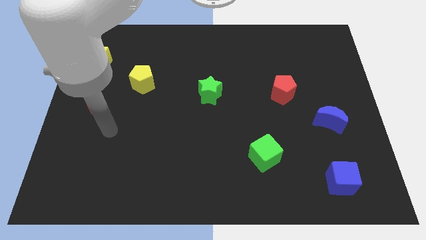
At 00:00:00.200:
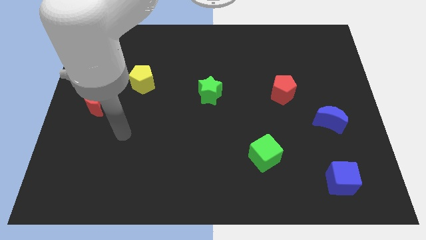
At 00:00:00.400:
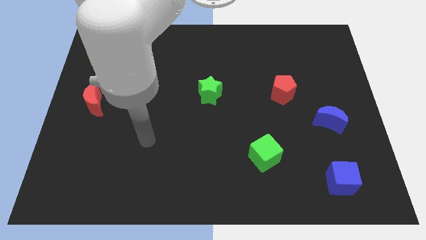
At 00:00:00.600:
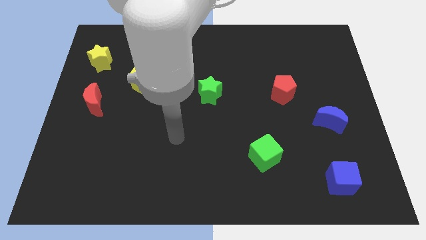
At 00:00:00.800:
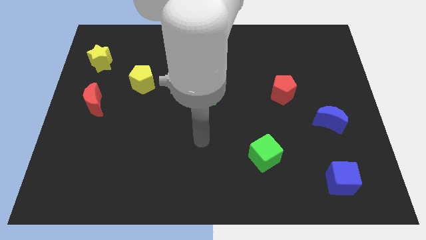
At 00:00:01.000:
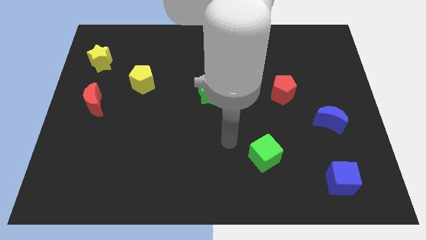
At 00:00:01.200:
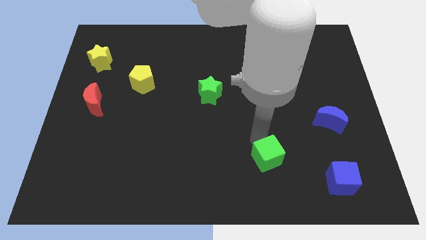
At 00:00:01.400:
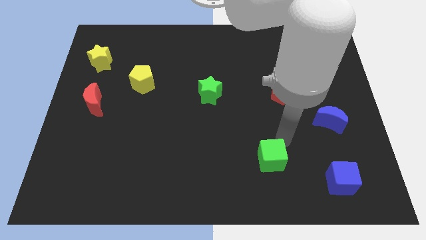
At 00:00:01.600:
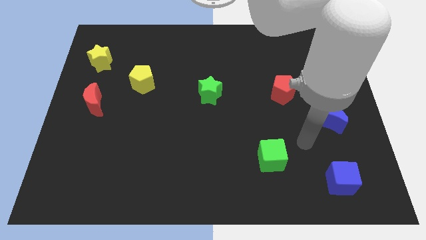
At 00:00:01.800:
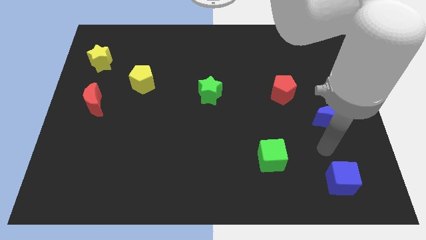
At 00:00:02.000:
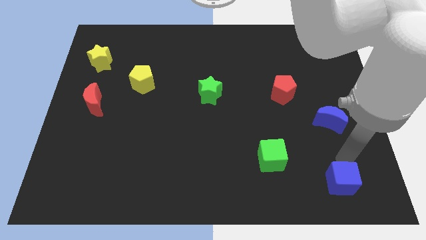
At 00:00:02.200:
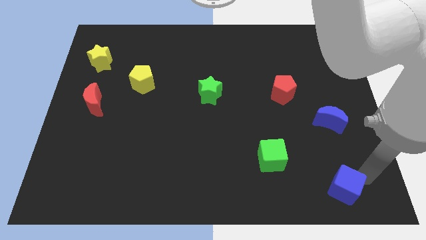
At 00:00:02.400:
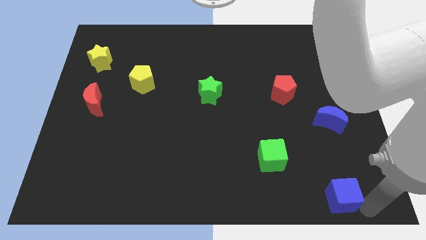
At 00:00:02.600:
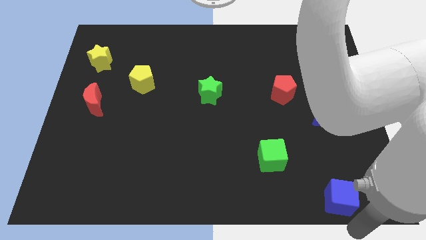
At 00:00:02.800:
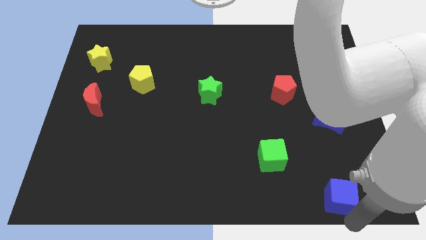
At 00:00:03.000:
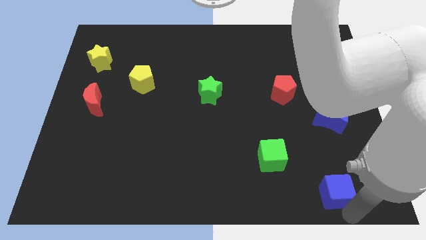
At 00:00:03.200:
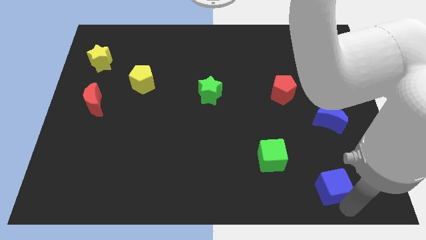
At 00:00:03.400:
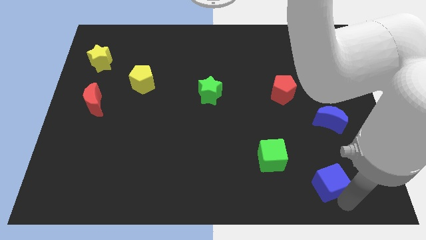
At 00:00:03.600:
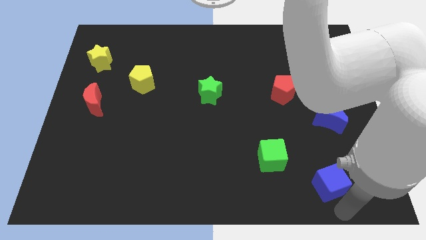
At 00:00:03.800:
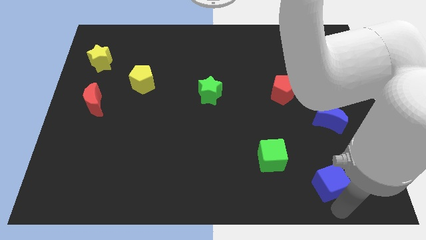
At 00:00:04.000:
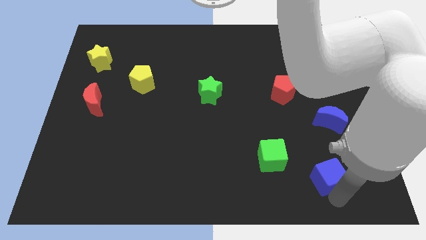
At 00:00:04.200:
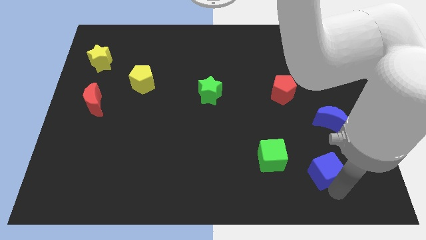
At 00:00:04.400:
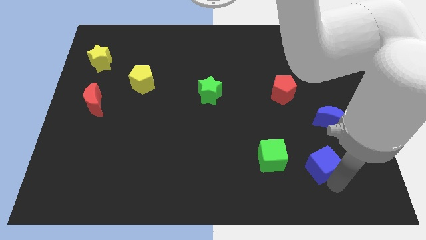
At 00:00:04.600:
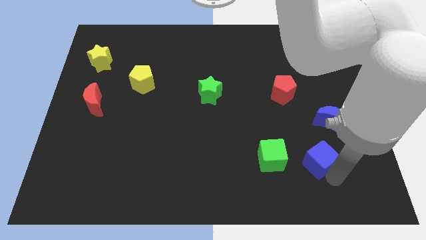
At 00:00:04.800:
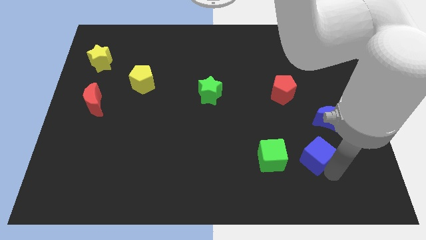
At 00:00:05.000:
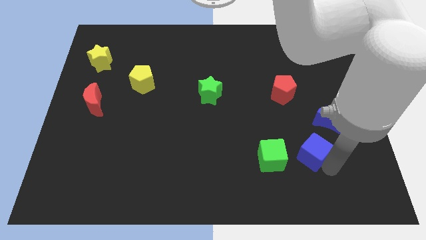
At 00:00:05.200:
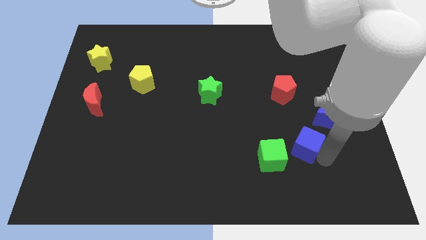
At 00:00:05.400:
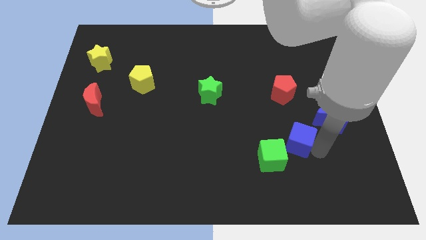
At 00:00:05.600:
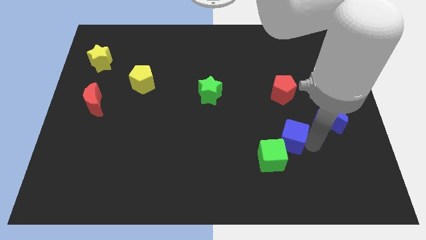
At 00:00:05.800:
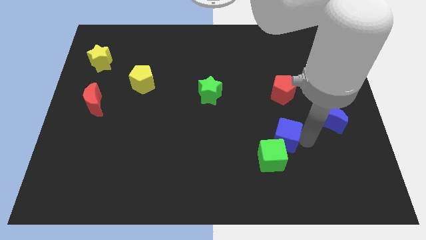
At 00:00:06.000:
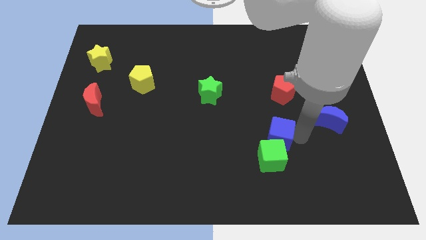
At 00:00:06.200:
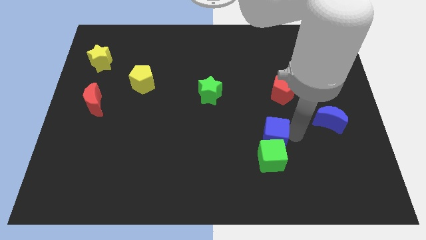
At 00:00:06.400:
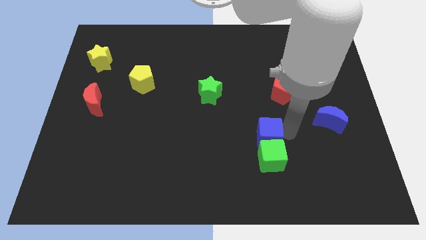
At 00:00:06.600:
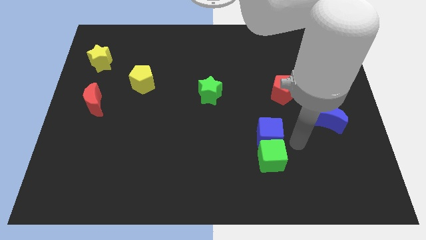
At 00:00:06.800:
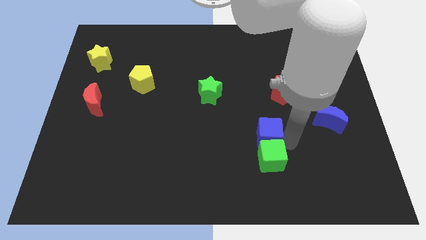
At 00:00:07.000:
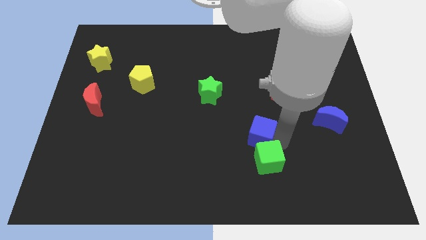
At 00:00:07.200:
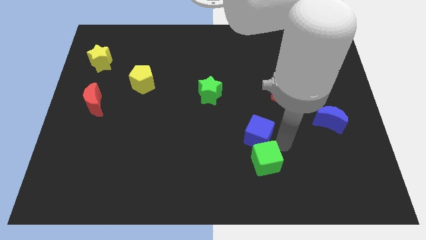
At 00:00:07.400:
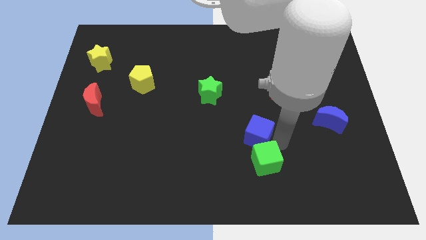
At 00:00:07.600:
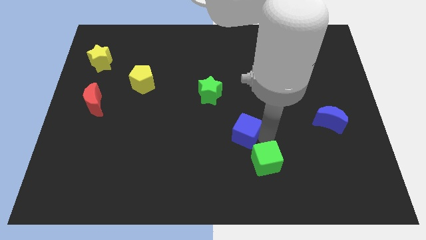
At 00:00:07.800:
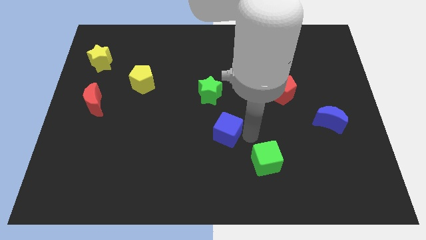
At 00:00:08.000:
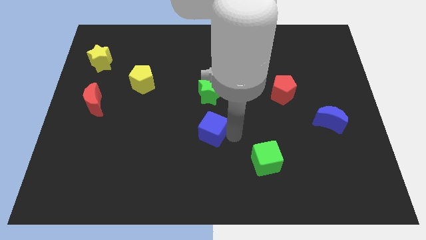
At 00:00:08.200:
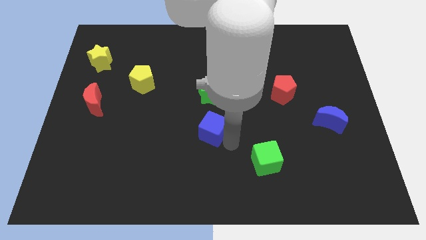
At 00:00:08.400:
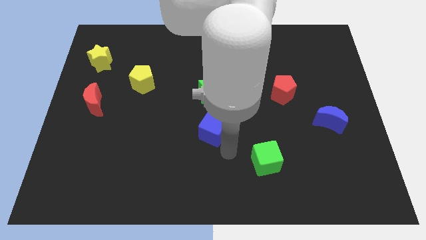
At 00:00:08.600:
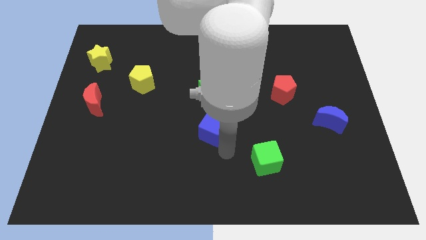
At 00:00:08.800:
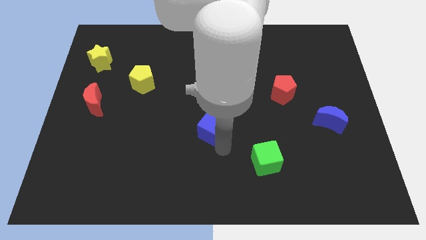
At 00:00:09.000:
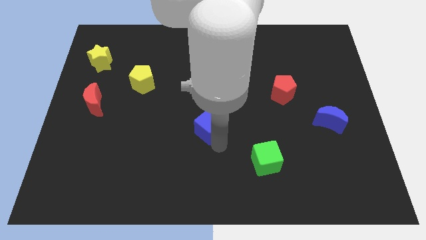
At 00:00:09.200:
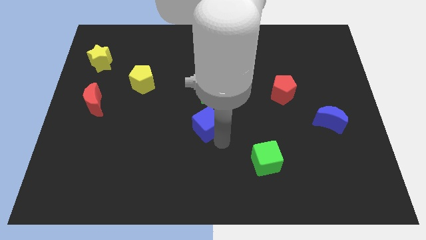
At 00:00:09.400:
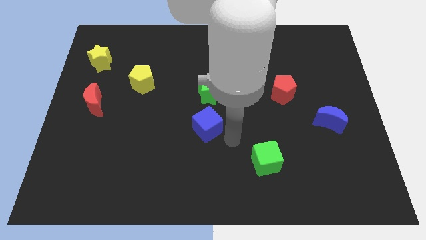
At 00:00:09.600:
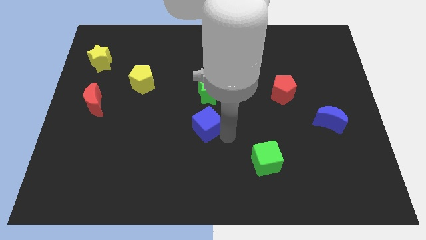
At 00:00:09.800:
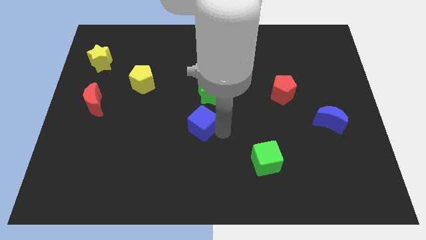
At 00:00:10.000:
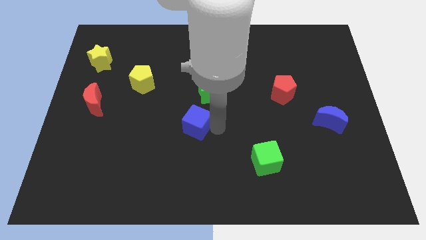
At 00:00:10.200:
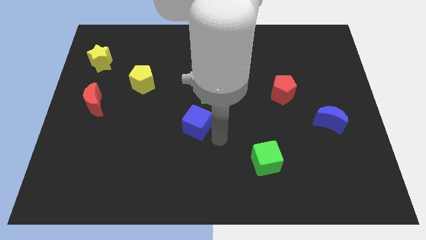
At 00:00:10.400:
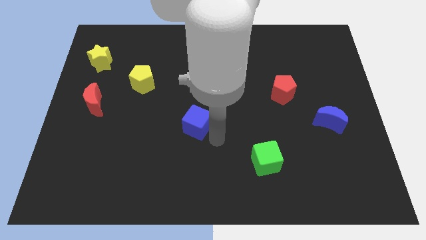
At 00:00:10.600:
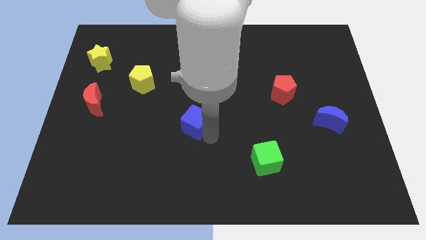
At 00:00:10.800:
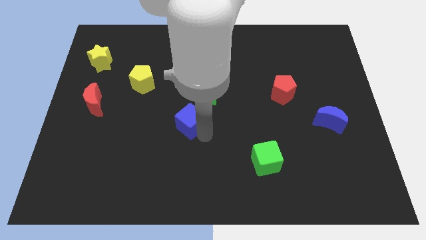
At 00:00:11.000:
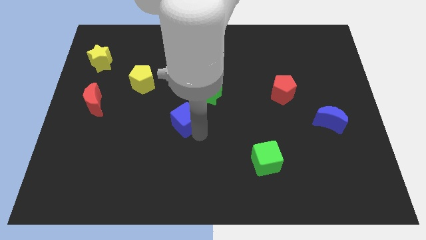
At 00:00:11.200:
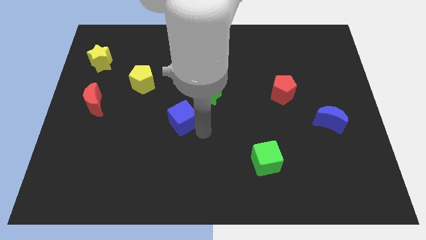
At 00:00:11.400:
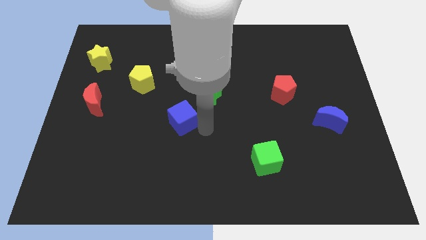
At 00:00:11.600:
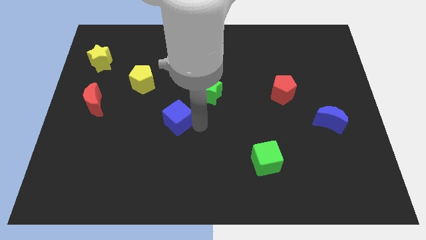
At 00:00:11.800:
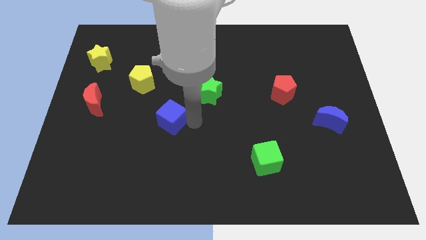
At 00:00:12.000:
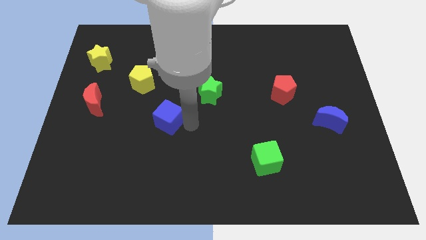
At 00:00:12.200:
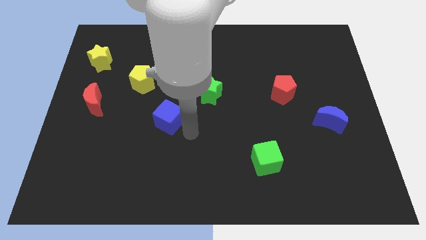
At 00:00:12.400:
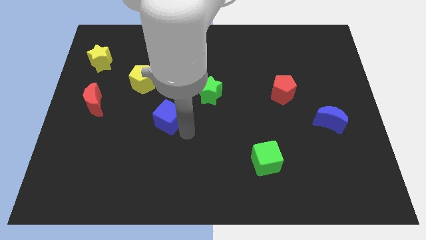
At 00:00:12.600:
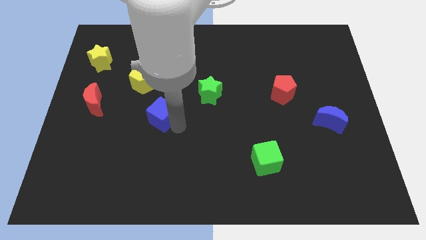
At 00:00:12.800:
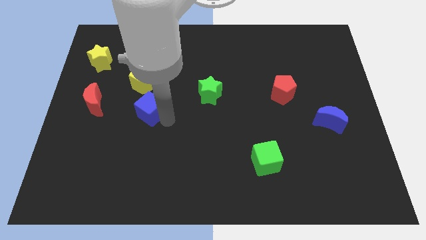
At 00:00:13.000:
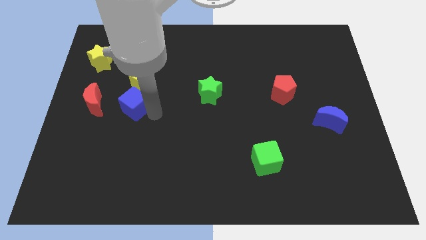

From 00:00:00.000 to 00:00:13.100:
move the blue cube diagonally down and to the left of the yellow pentagon

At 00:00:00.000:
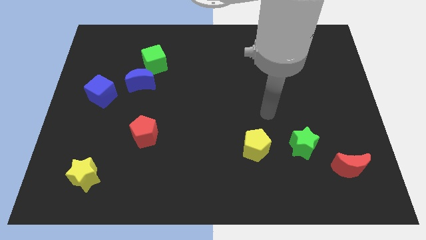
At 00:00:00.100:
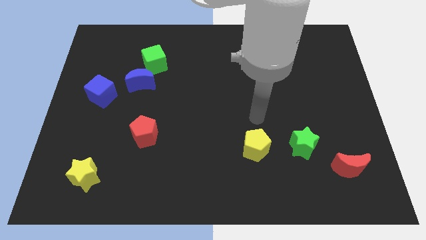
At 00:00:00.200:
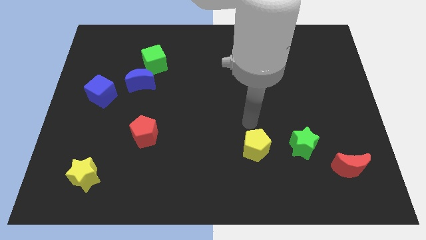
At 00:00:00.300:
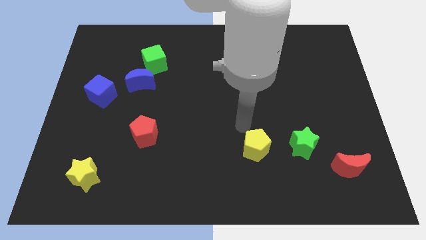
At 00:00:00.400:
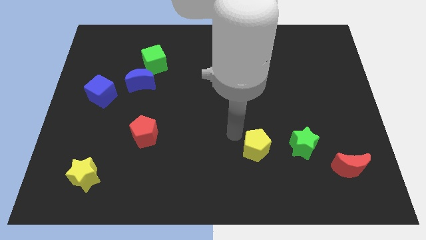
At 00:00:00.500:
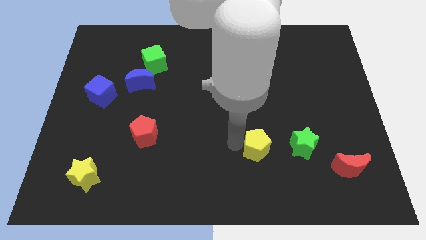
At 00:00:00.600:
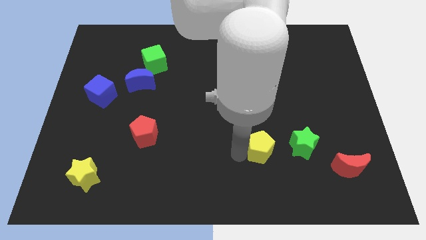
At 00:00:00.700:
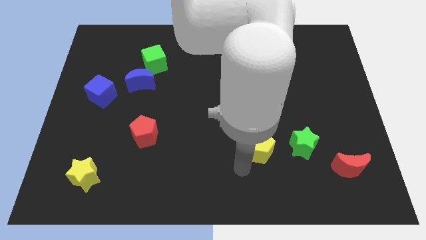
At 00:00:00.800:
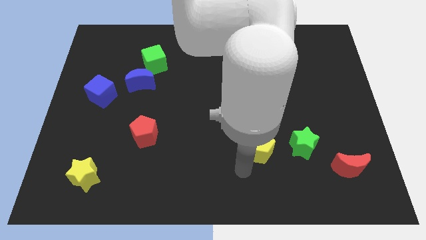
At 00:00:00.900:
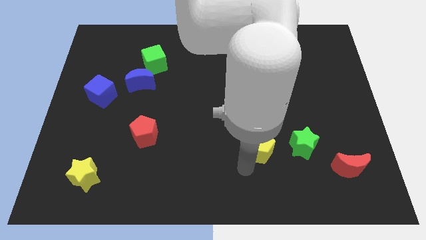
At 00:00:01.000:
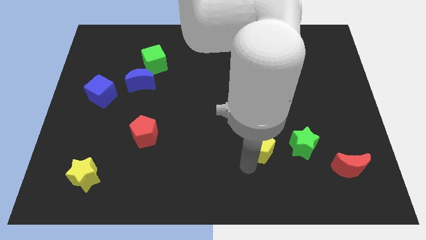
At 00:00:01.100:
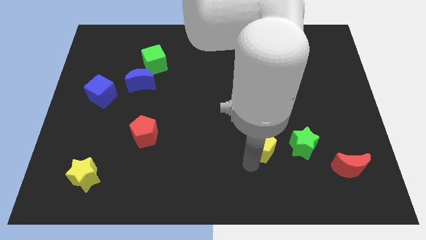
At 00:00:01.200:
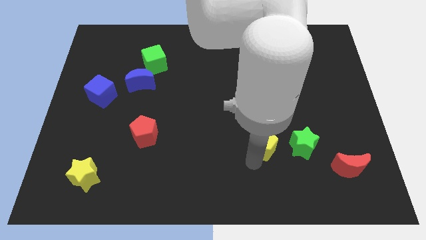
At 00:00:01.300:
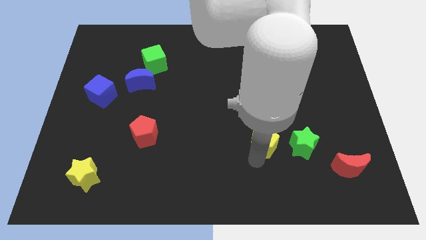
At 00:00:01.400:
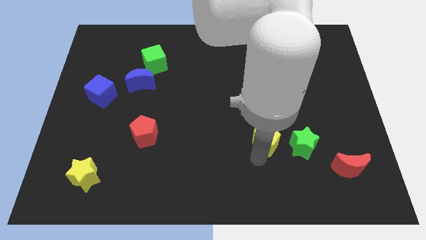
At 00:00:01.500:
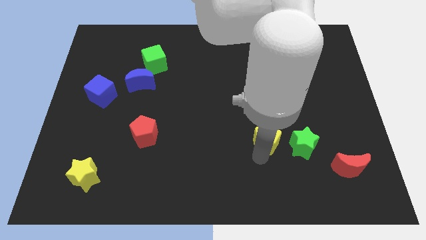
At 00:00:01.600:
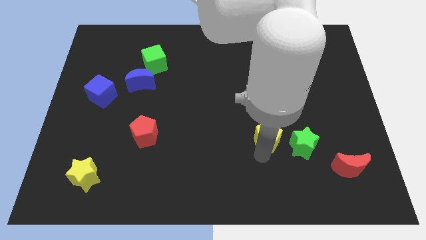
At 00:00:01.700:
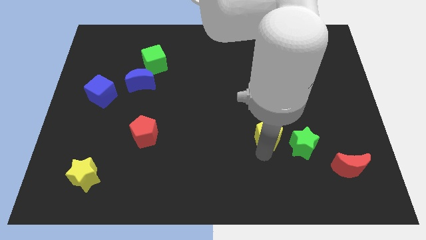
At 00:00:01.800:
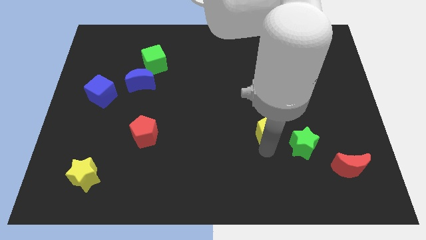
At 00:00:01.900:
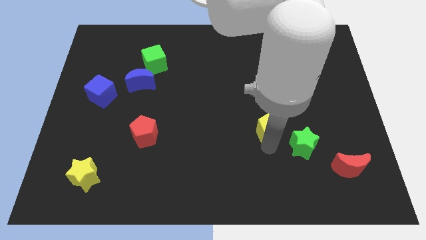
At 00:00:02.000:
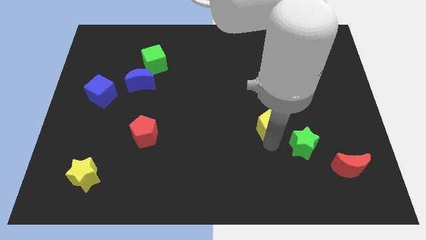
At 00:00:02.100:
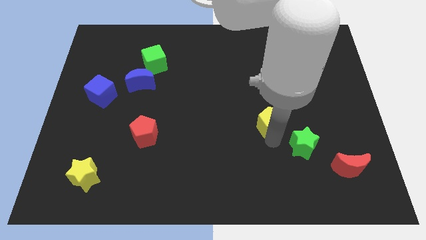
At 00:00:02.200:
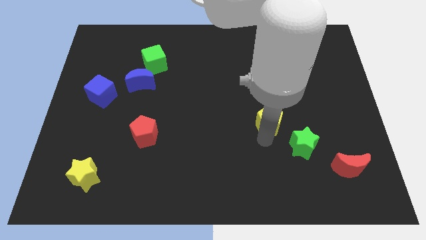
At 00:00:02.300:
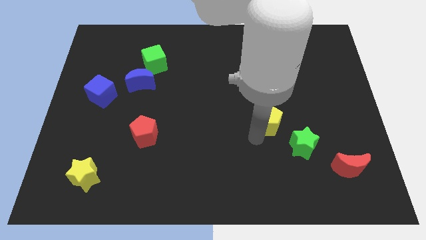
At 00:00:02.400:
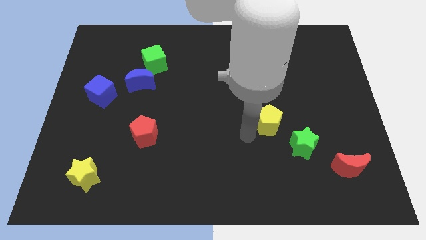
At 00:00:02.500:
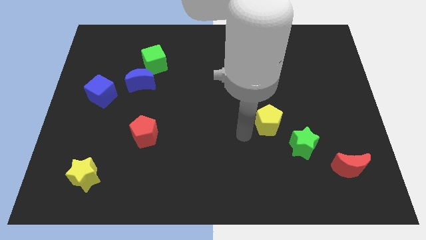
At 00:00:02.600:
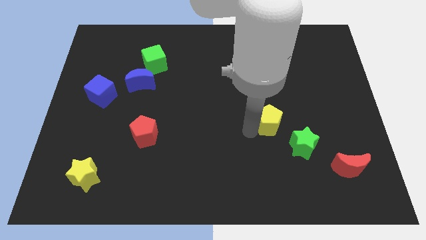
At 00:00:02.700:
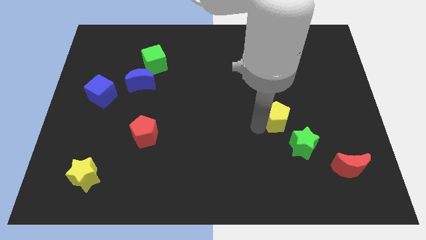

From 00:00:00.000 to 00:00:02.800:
slide the yellow pentagon above the green star
